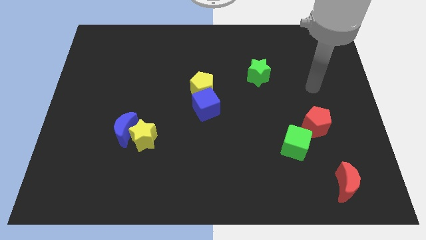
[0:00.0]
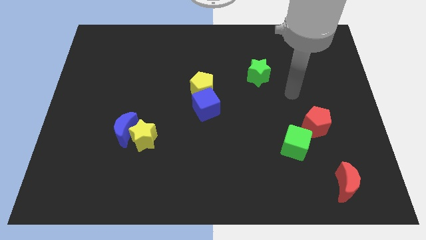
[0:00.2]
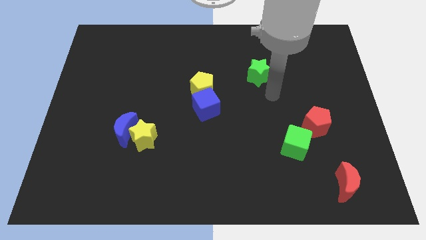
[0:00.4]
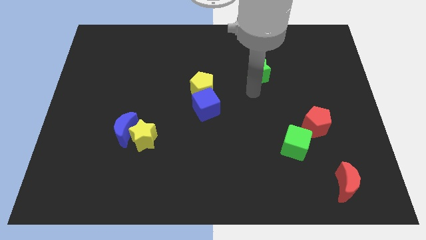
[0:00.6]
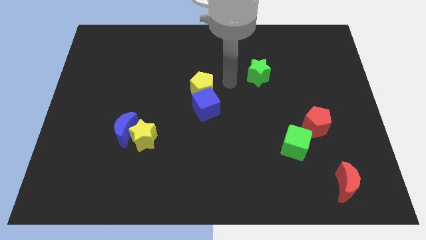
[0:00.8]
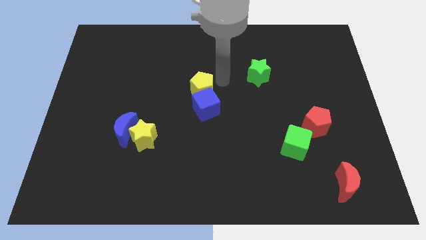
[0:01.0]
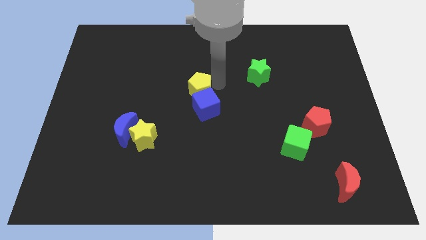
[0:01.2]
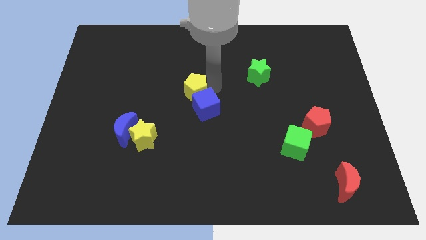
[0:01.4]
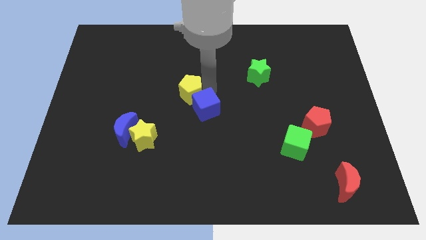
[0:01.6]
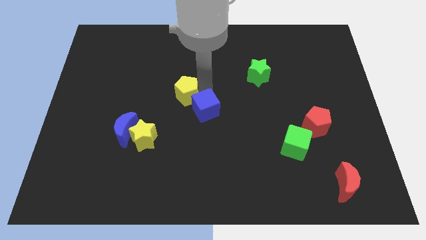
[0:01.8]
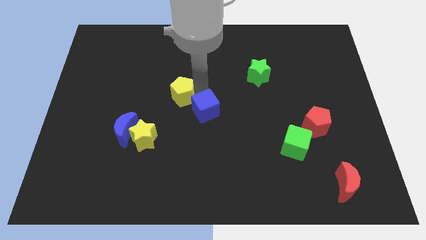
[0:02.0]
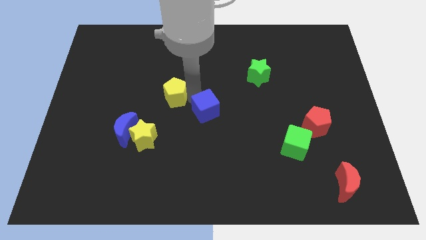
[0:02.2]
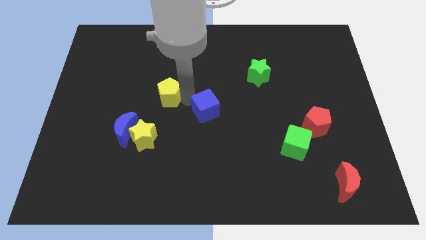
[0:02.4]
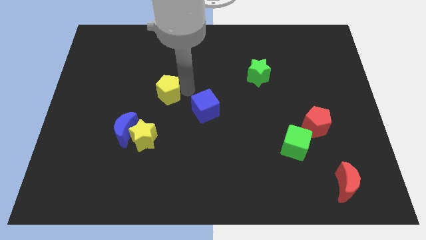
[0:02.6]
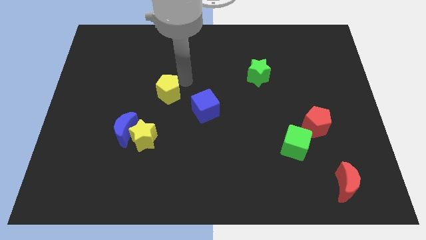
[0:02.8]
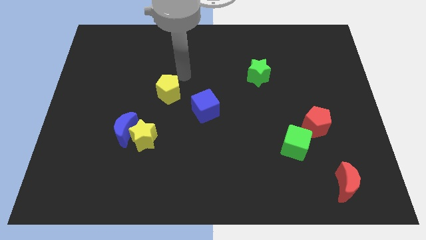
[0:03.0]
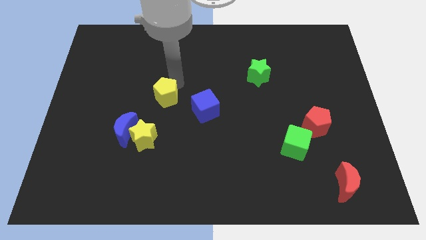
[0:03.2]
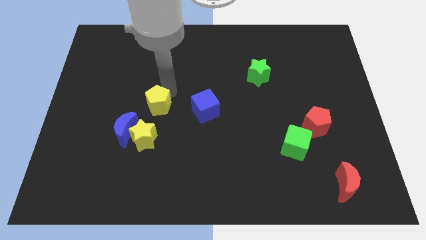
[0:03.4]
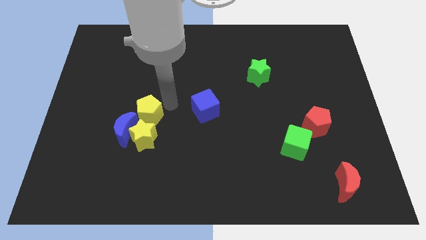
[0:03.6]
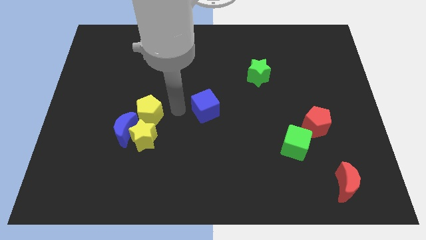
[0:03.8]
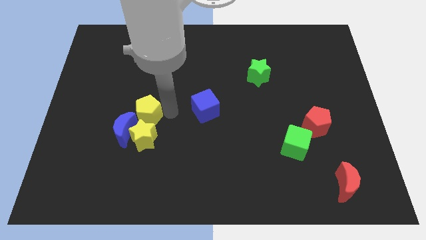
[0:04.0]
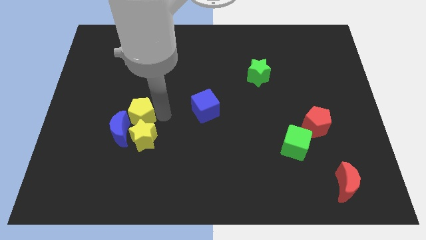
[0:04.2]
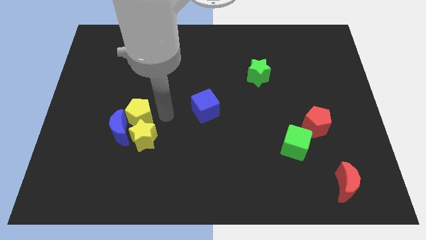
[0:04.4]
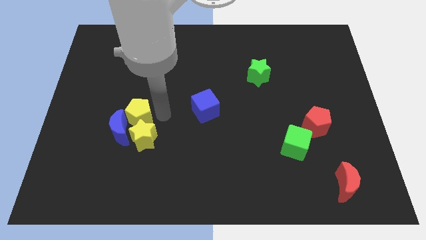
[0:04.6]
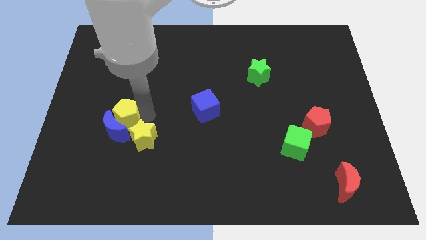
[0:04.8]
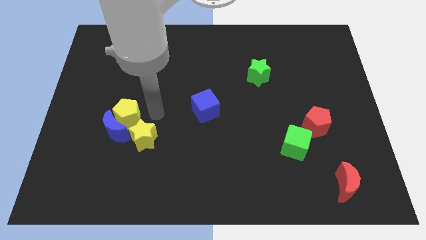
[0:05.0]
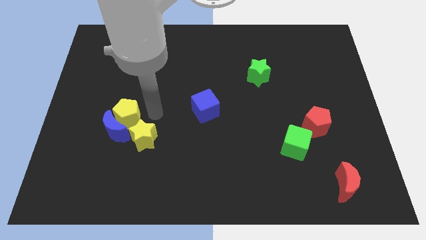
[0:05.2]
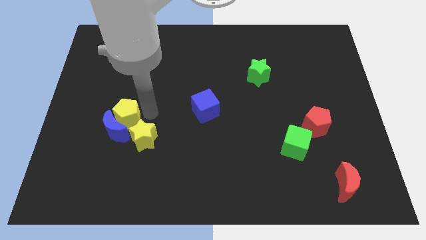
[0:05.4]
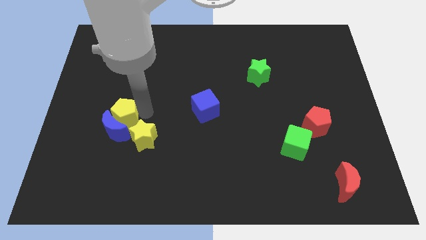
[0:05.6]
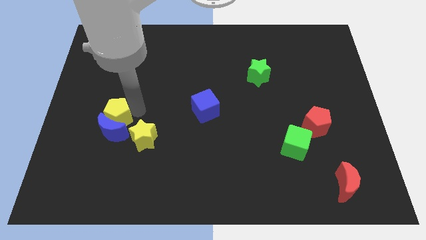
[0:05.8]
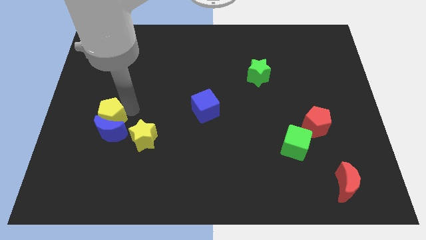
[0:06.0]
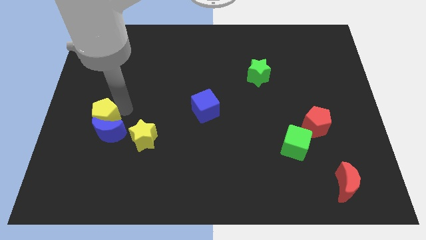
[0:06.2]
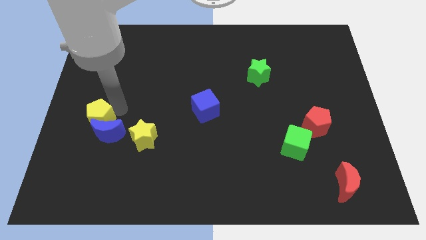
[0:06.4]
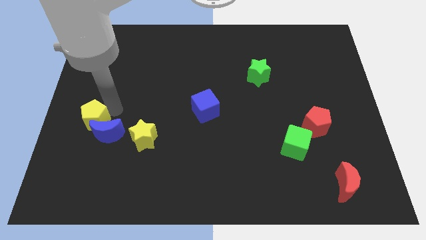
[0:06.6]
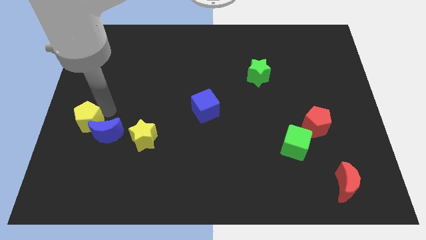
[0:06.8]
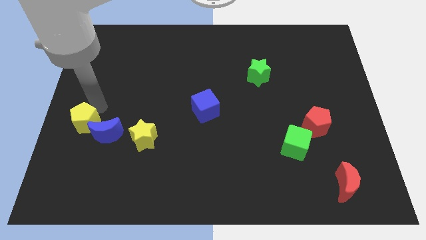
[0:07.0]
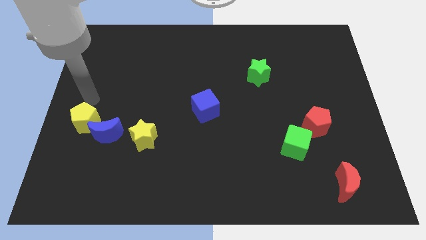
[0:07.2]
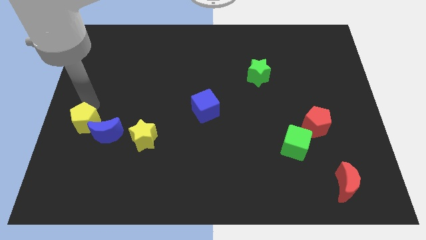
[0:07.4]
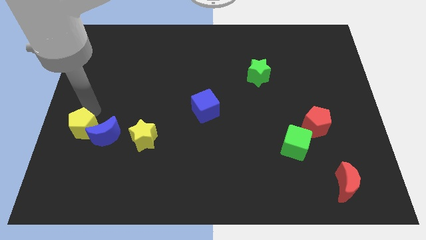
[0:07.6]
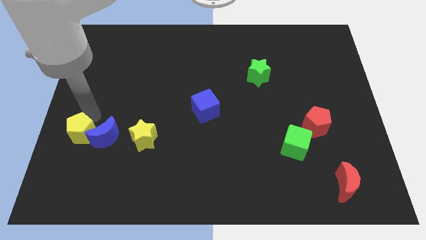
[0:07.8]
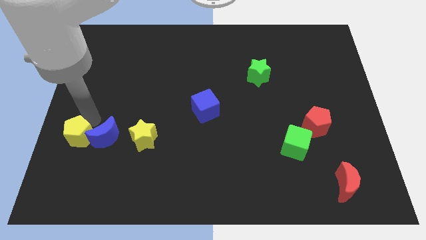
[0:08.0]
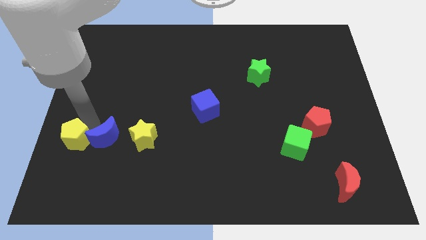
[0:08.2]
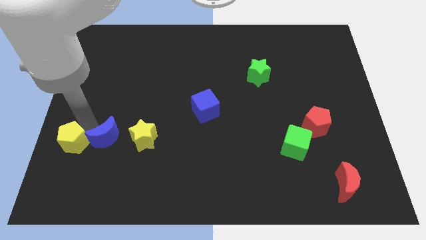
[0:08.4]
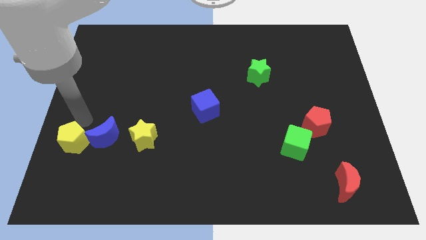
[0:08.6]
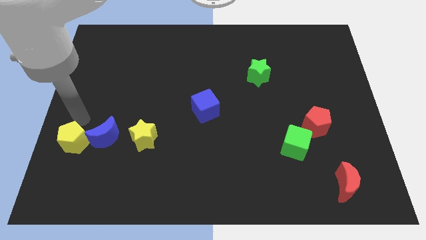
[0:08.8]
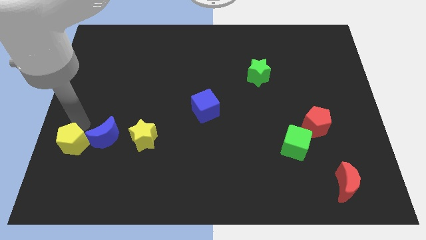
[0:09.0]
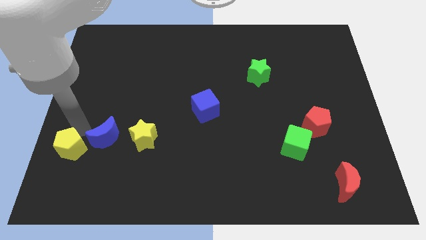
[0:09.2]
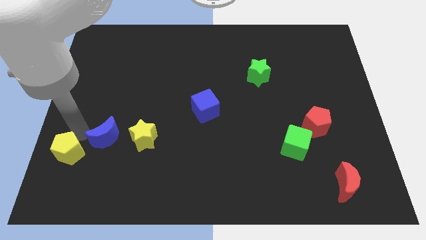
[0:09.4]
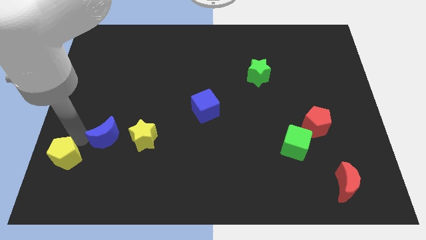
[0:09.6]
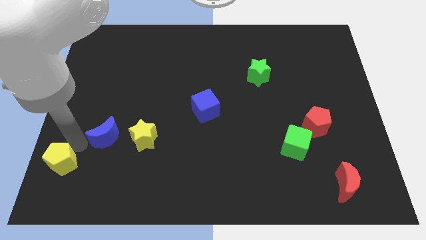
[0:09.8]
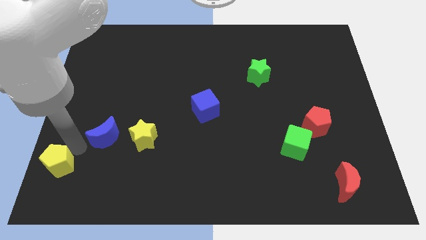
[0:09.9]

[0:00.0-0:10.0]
slide the yellow pentagon to the bottom left
